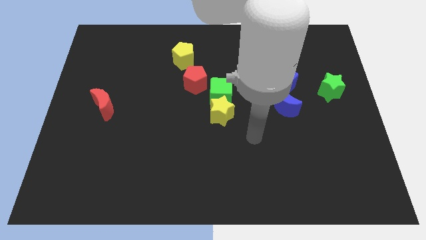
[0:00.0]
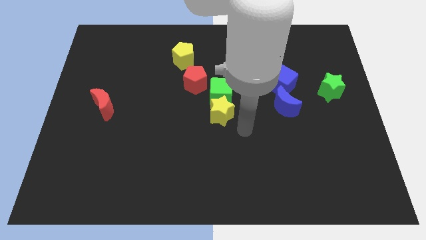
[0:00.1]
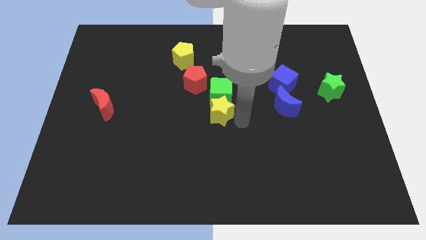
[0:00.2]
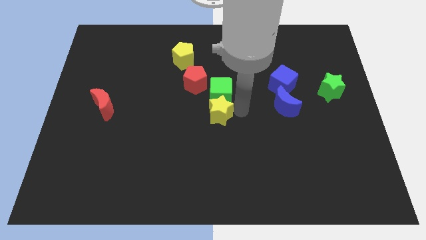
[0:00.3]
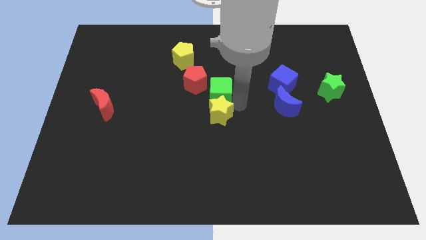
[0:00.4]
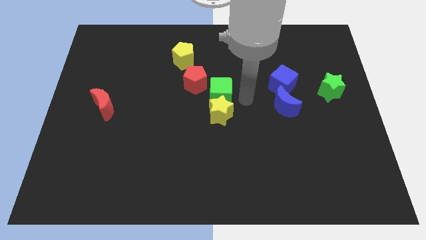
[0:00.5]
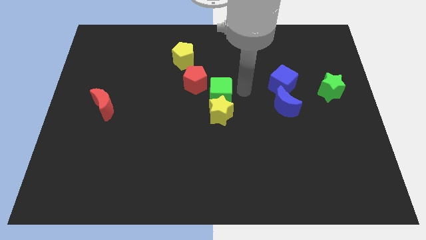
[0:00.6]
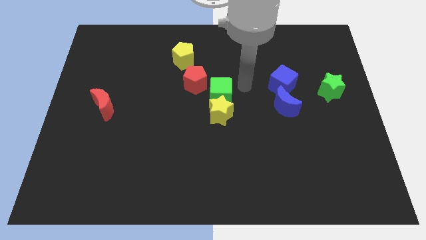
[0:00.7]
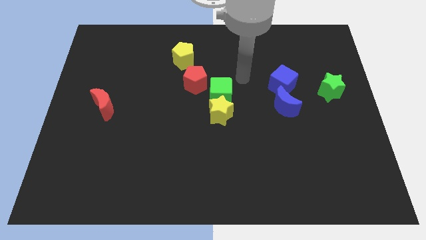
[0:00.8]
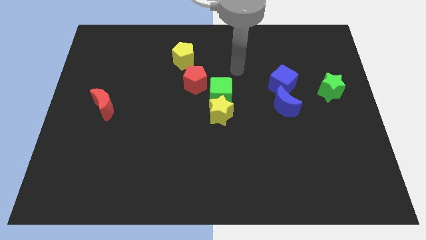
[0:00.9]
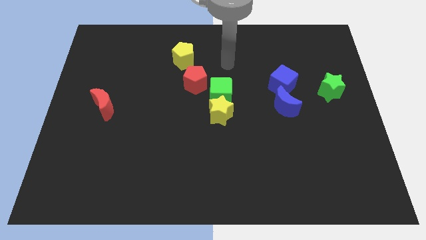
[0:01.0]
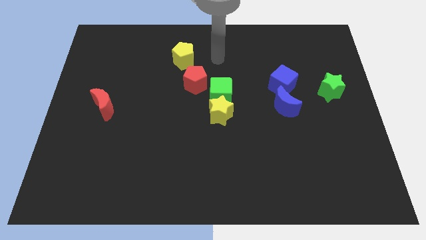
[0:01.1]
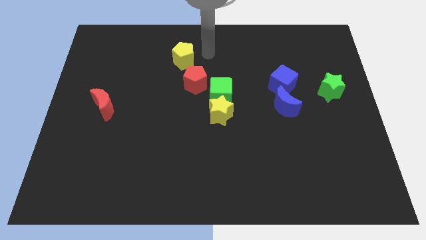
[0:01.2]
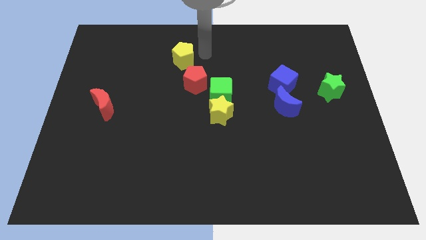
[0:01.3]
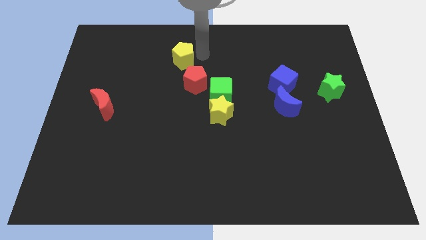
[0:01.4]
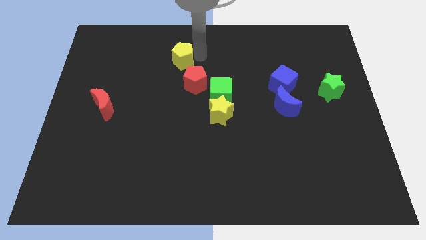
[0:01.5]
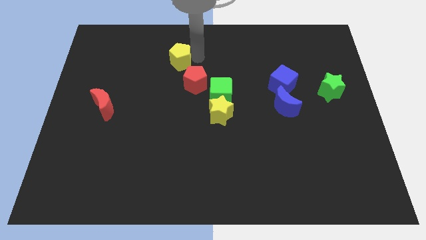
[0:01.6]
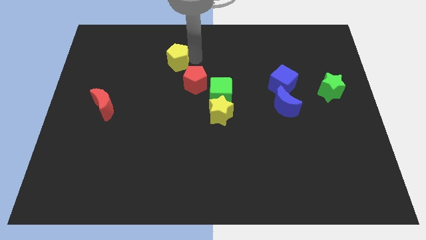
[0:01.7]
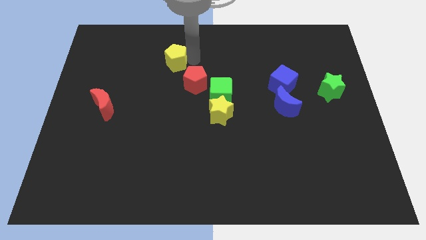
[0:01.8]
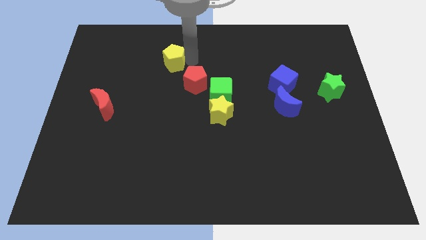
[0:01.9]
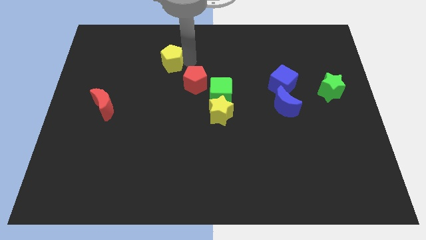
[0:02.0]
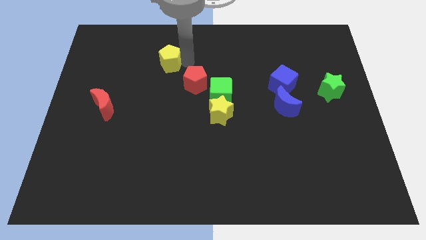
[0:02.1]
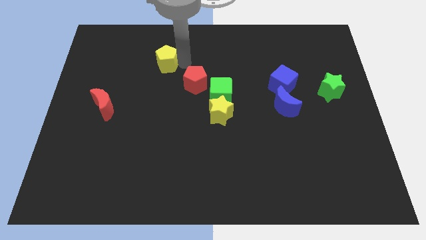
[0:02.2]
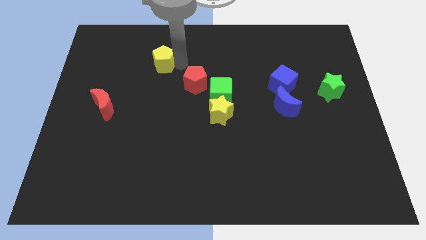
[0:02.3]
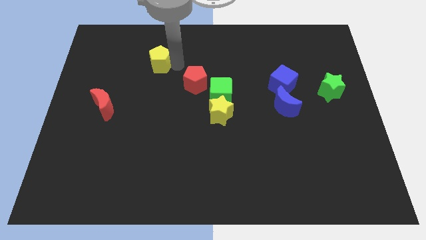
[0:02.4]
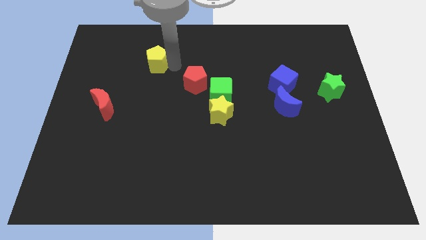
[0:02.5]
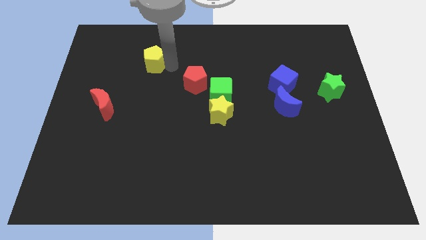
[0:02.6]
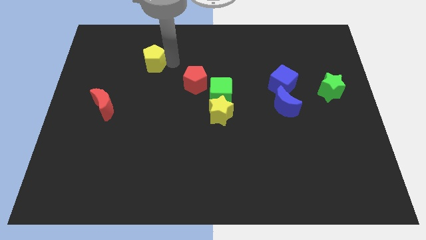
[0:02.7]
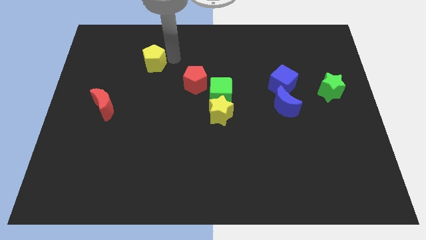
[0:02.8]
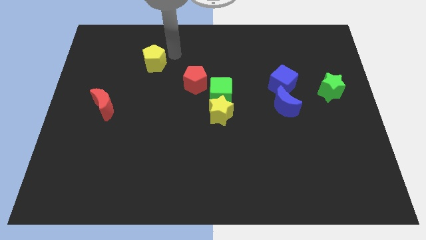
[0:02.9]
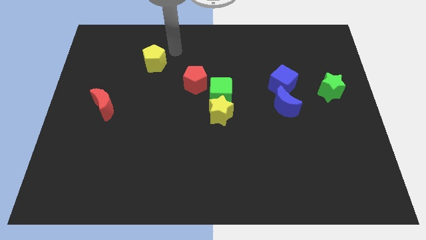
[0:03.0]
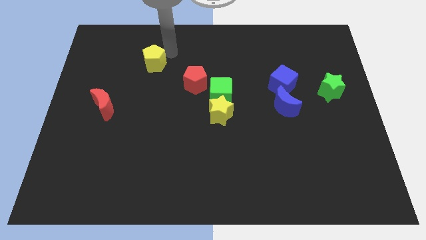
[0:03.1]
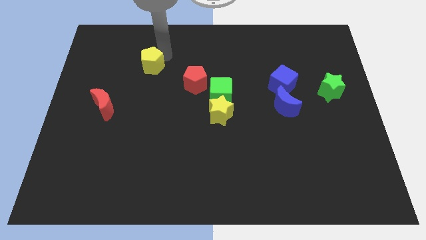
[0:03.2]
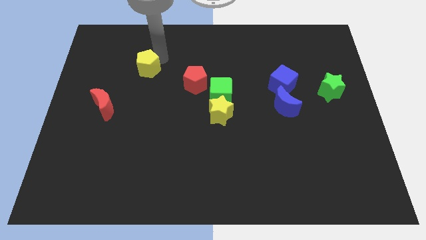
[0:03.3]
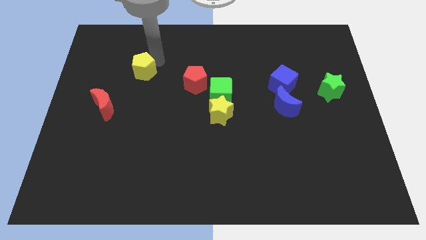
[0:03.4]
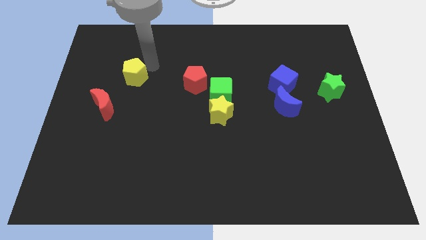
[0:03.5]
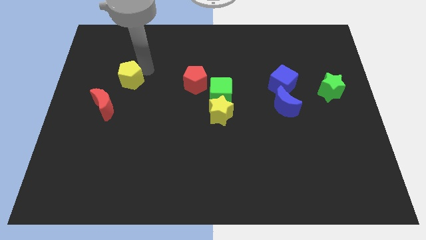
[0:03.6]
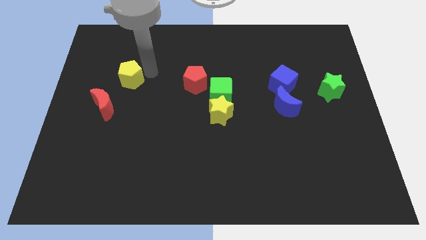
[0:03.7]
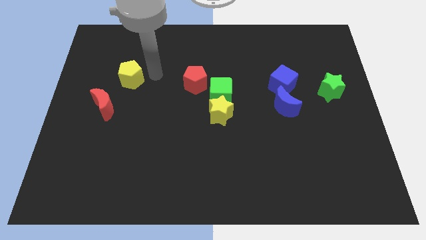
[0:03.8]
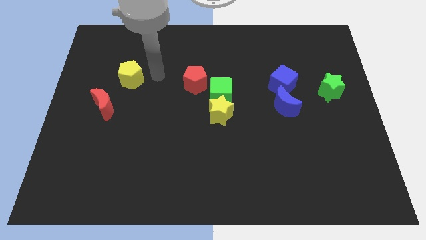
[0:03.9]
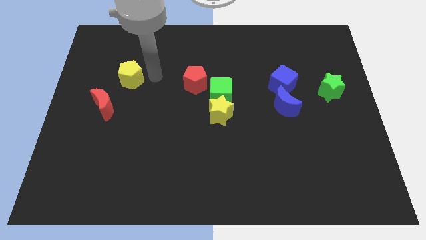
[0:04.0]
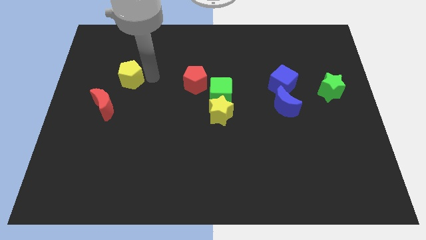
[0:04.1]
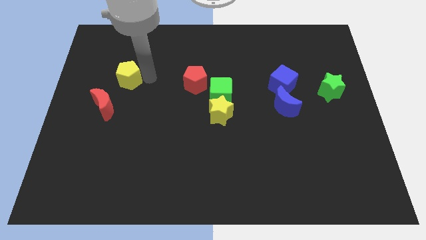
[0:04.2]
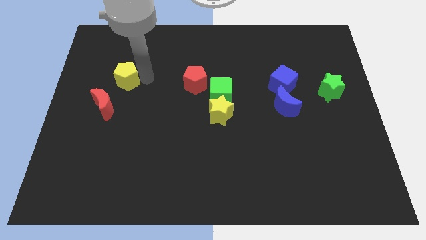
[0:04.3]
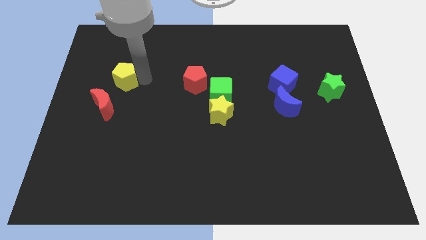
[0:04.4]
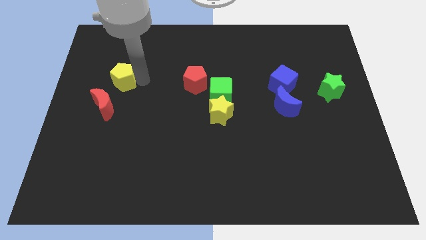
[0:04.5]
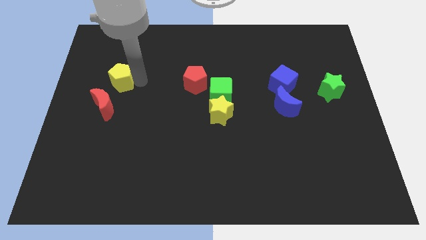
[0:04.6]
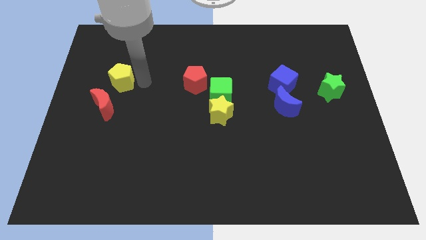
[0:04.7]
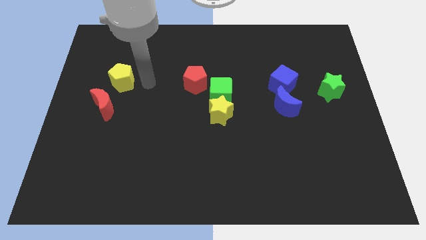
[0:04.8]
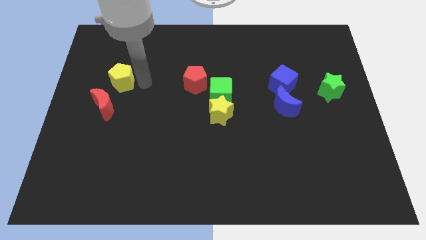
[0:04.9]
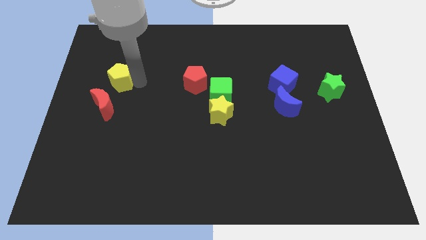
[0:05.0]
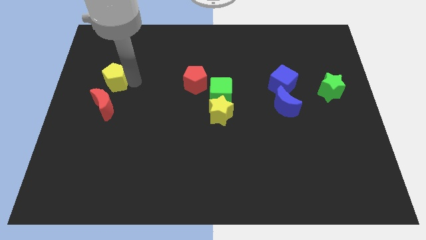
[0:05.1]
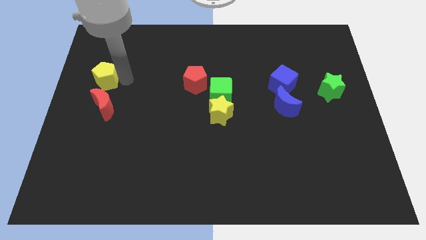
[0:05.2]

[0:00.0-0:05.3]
put the yellow pentagon to the left side of the board

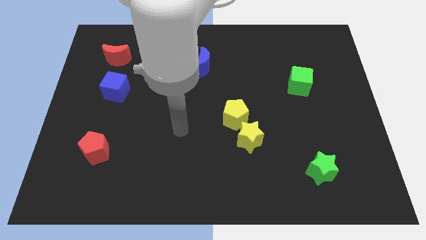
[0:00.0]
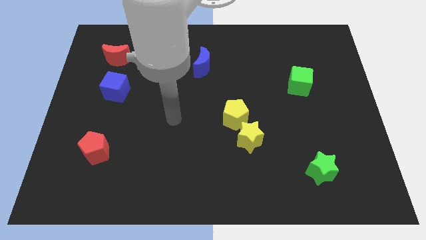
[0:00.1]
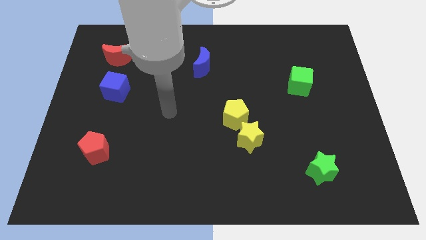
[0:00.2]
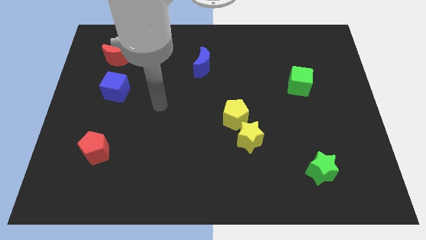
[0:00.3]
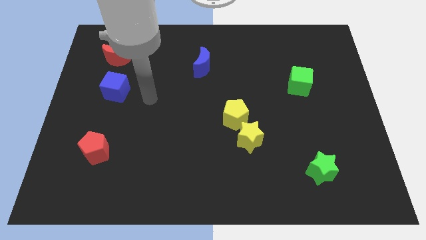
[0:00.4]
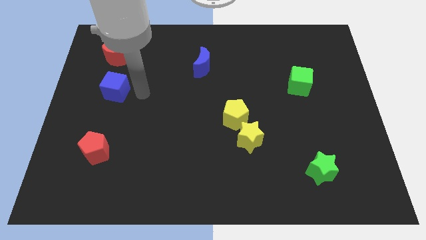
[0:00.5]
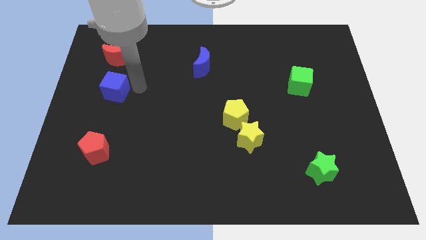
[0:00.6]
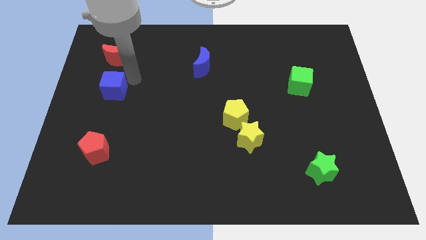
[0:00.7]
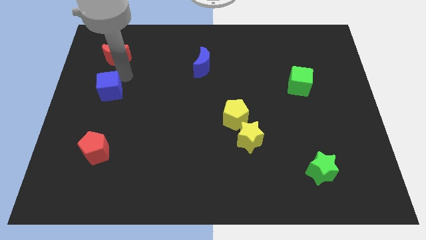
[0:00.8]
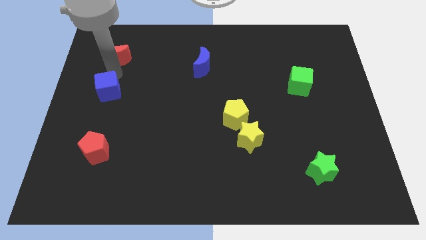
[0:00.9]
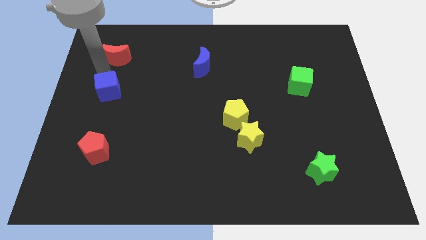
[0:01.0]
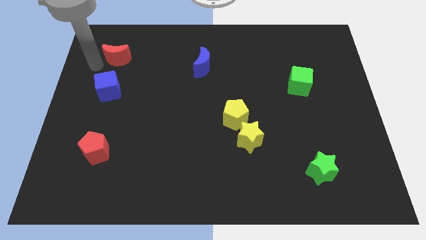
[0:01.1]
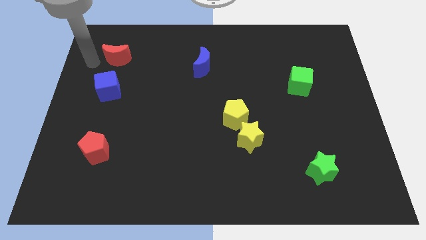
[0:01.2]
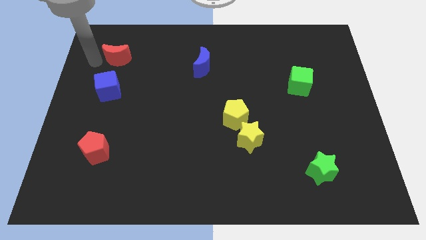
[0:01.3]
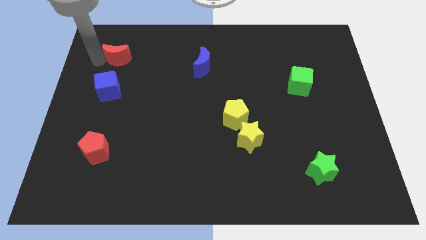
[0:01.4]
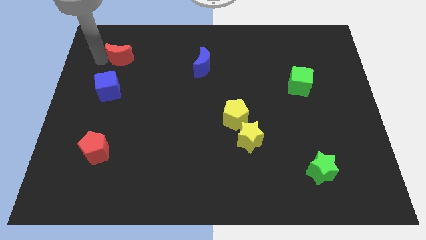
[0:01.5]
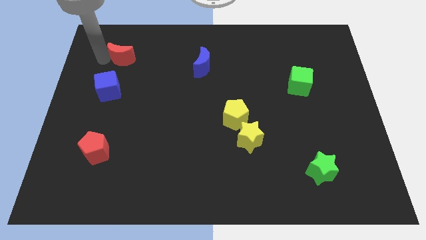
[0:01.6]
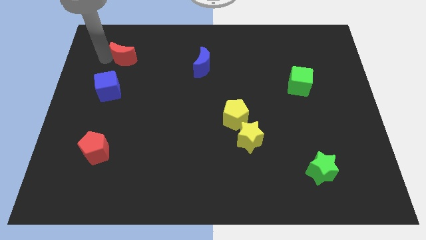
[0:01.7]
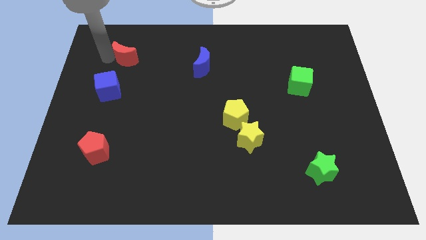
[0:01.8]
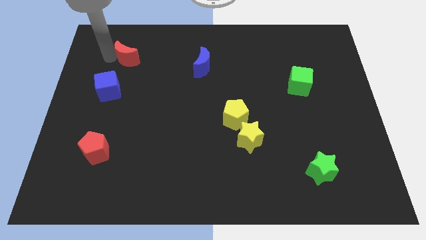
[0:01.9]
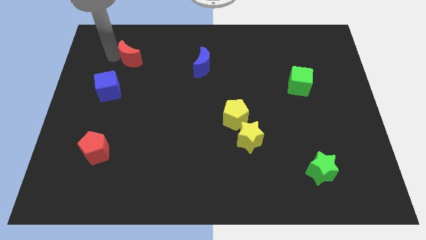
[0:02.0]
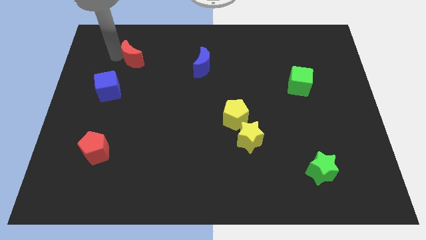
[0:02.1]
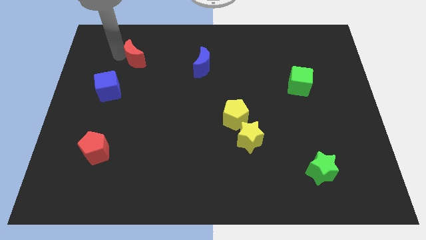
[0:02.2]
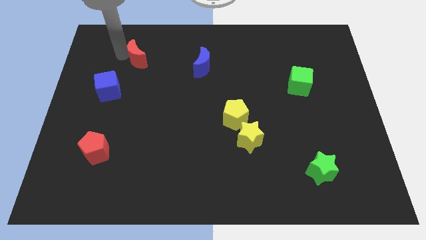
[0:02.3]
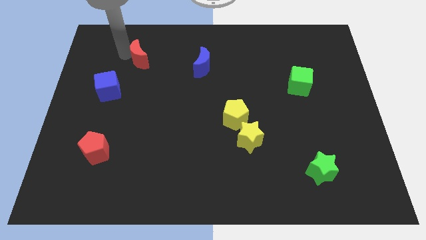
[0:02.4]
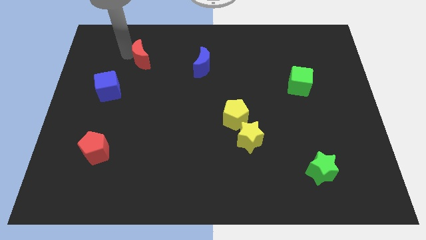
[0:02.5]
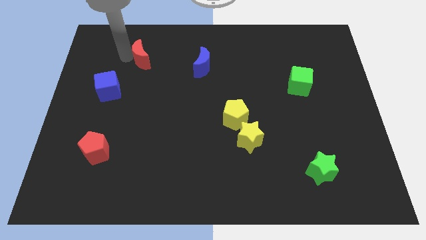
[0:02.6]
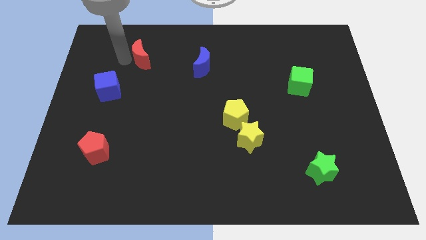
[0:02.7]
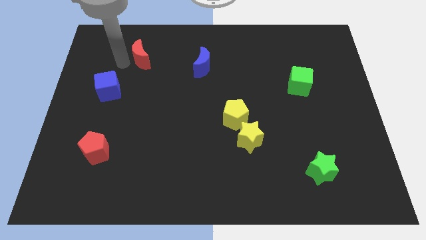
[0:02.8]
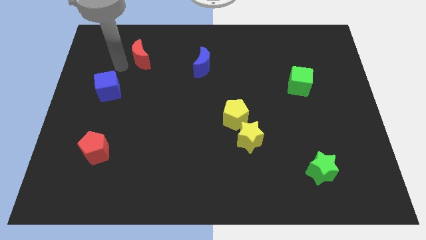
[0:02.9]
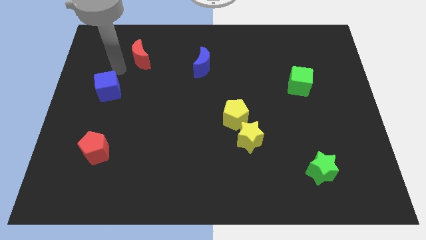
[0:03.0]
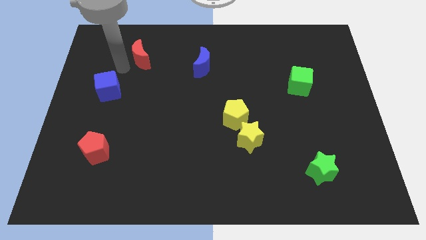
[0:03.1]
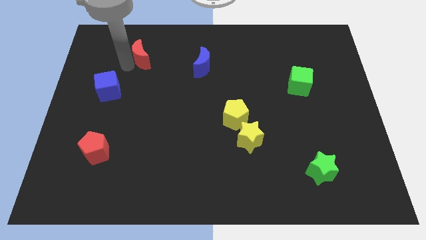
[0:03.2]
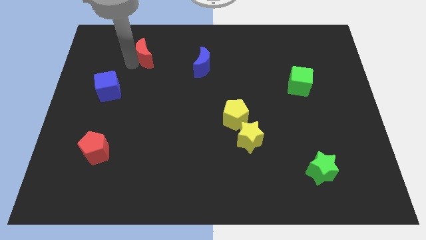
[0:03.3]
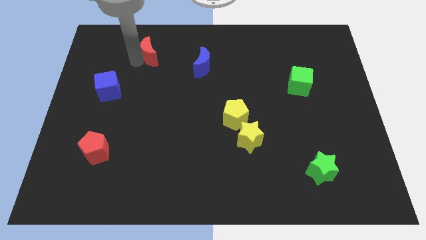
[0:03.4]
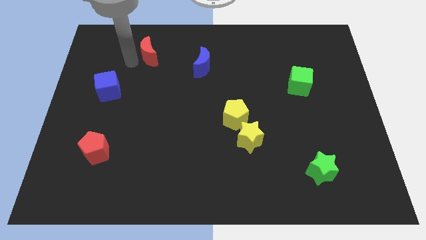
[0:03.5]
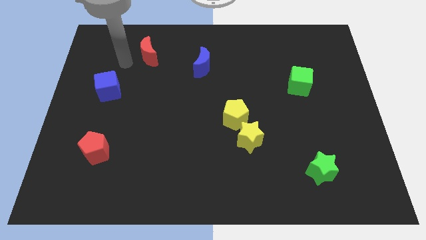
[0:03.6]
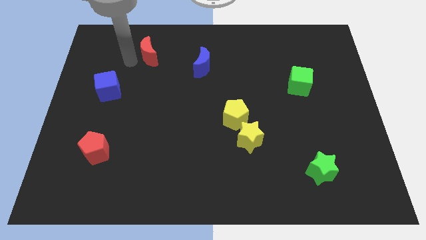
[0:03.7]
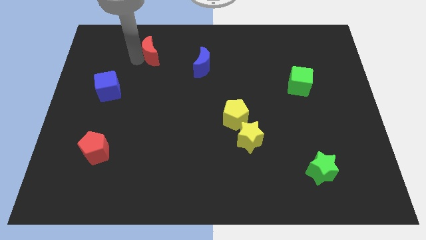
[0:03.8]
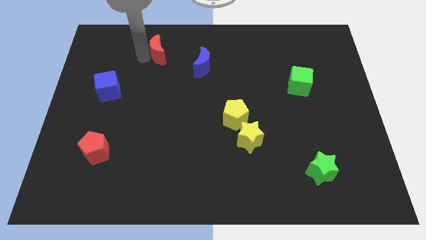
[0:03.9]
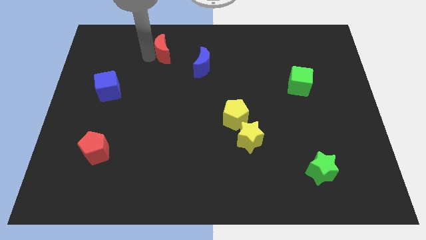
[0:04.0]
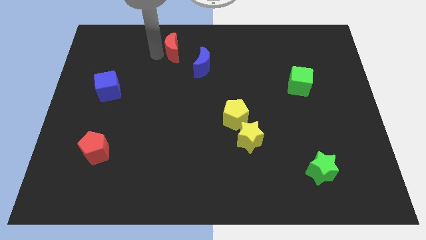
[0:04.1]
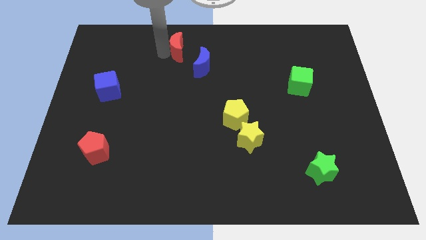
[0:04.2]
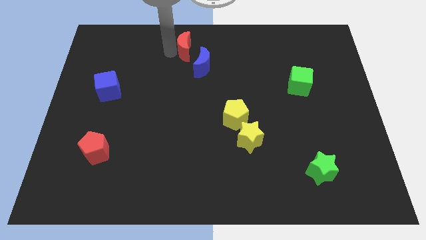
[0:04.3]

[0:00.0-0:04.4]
move the red moon to the top side
